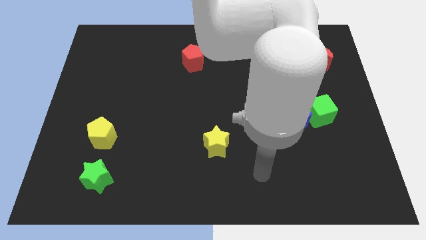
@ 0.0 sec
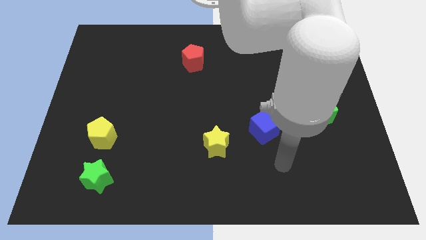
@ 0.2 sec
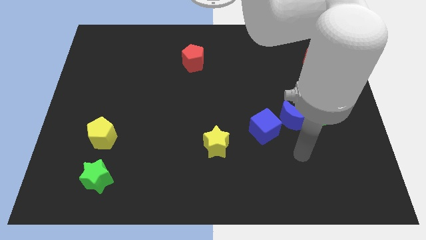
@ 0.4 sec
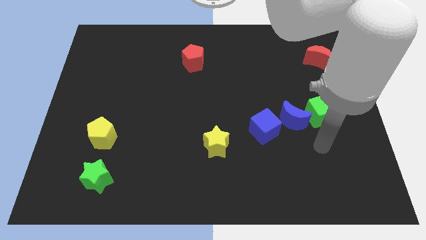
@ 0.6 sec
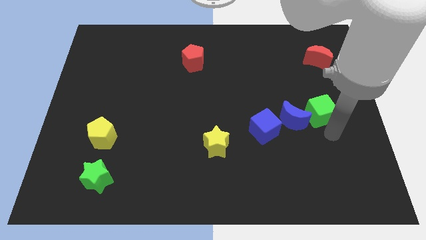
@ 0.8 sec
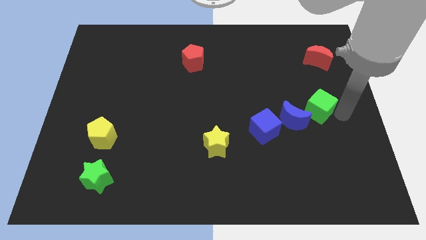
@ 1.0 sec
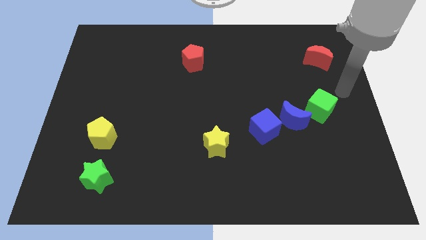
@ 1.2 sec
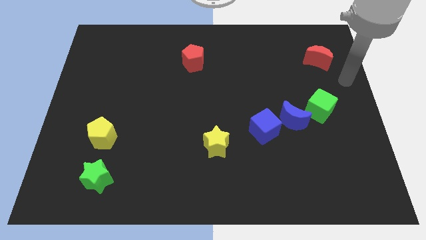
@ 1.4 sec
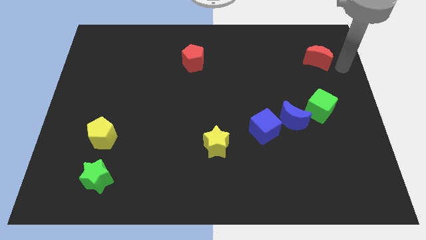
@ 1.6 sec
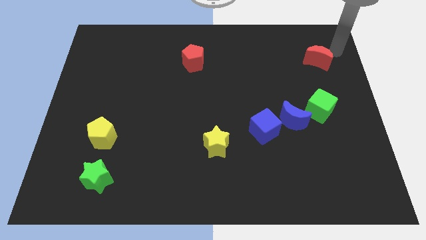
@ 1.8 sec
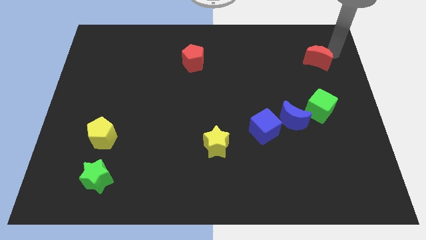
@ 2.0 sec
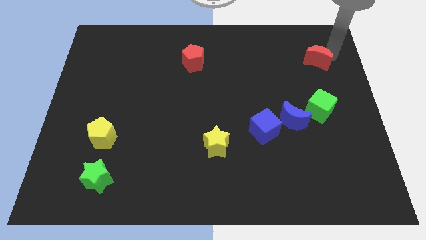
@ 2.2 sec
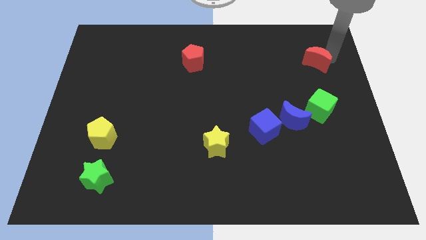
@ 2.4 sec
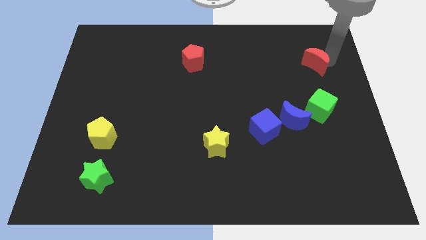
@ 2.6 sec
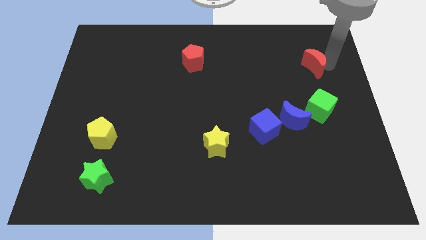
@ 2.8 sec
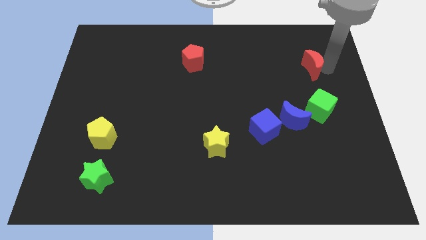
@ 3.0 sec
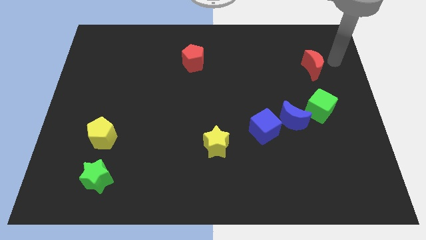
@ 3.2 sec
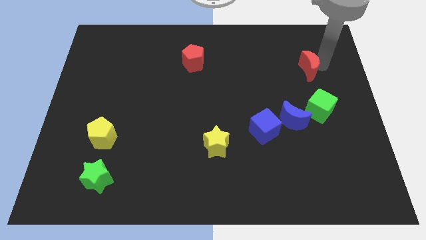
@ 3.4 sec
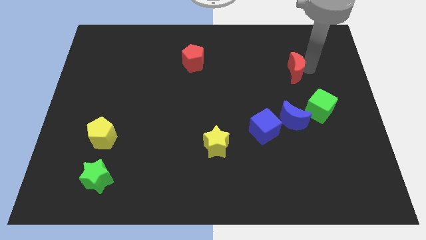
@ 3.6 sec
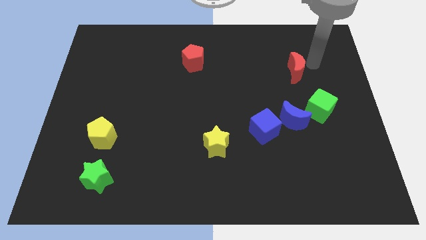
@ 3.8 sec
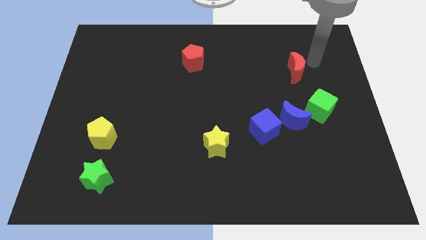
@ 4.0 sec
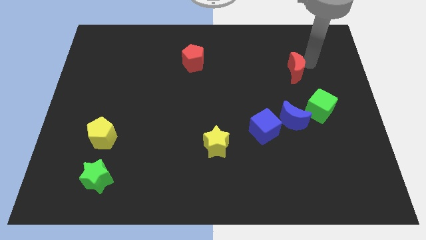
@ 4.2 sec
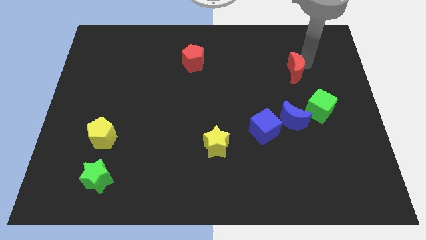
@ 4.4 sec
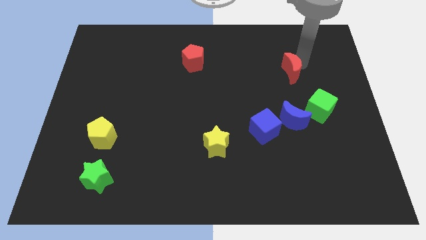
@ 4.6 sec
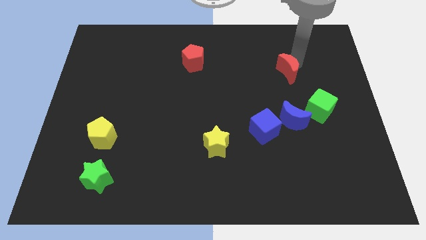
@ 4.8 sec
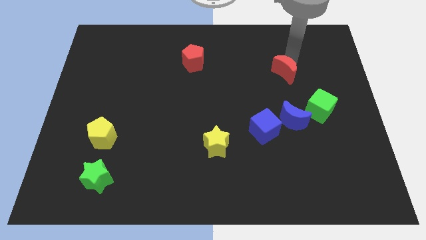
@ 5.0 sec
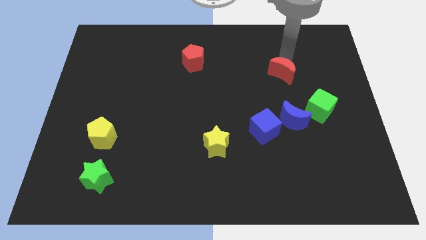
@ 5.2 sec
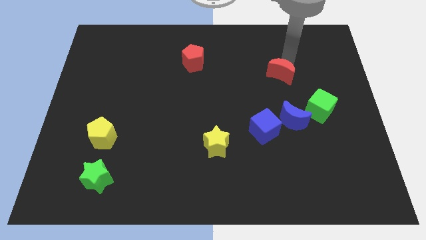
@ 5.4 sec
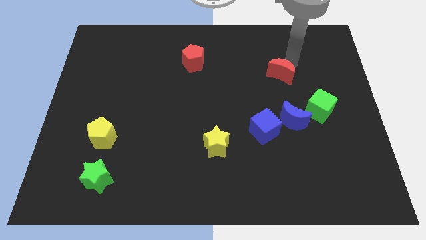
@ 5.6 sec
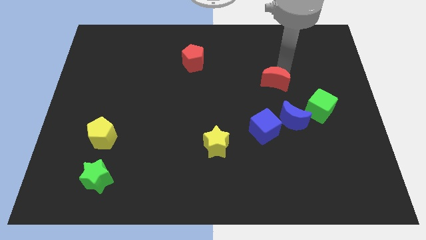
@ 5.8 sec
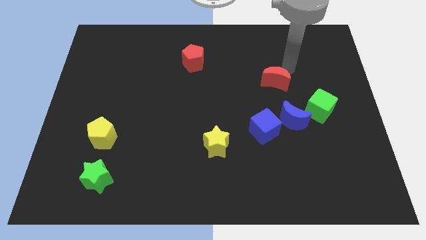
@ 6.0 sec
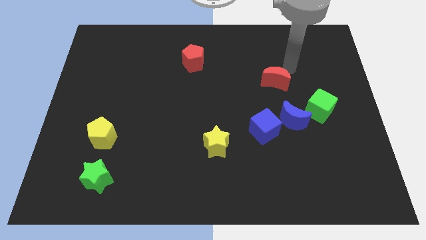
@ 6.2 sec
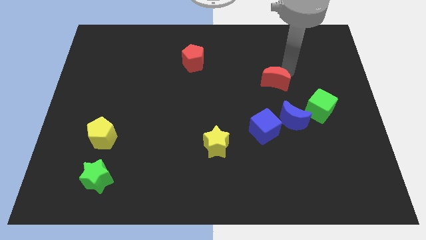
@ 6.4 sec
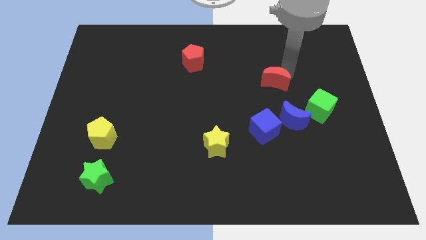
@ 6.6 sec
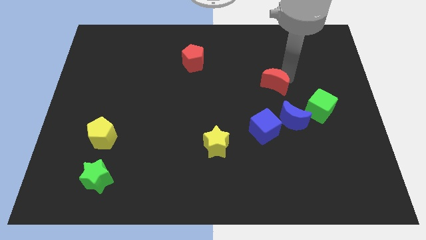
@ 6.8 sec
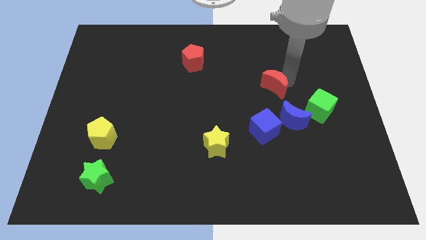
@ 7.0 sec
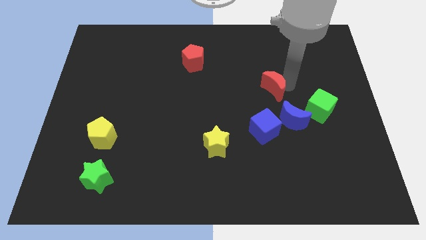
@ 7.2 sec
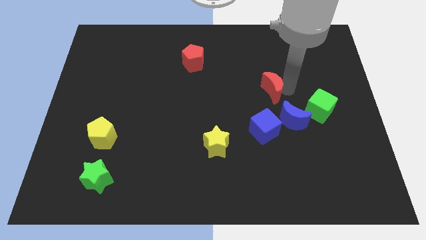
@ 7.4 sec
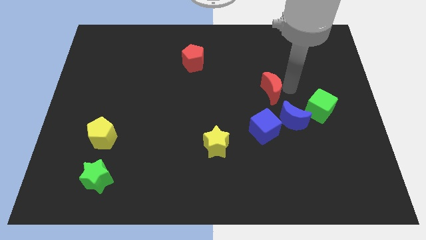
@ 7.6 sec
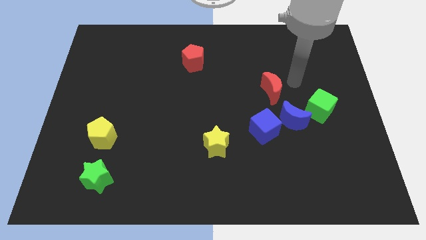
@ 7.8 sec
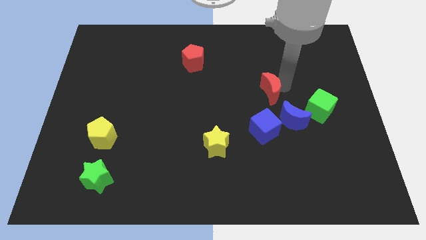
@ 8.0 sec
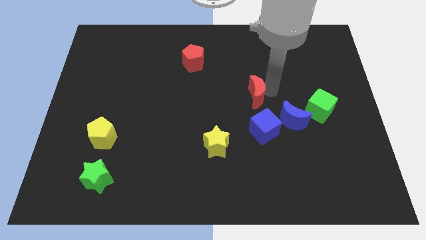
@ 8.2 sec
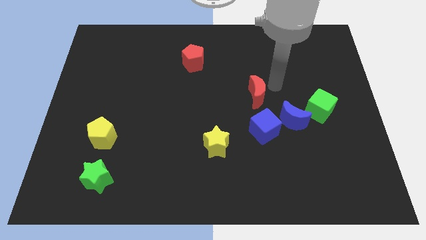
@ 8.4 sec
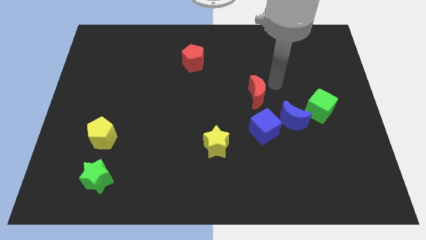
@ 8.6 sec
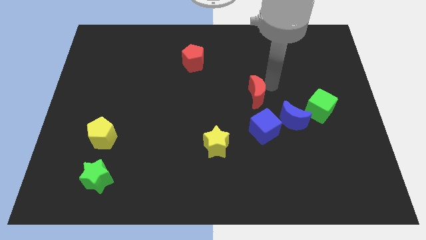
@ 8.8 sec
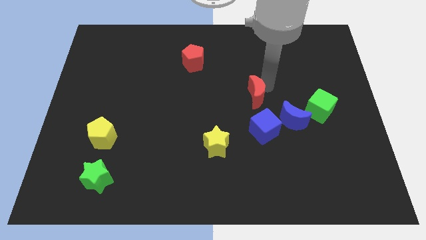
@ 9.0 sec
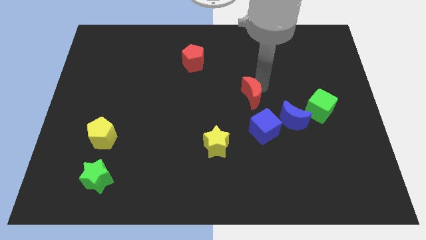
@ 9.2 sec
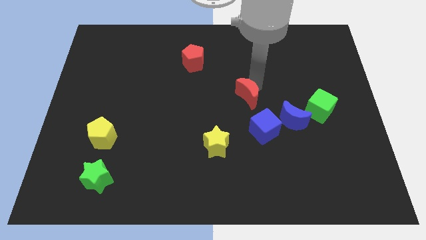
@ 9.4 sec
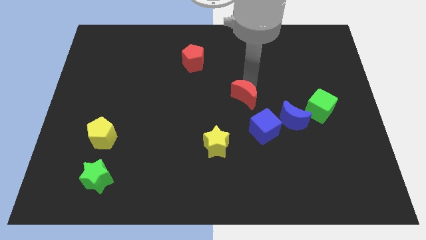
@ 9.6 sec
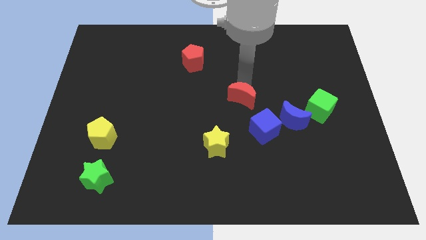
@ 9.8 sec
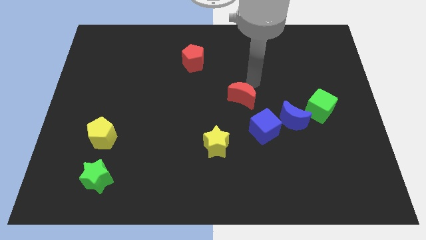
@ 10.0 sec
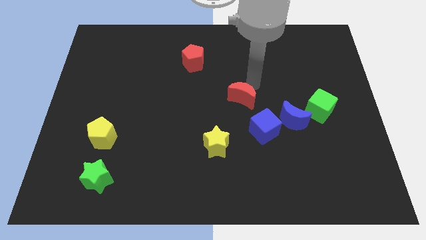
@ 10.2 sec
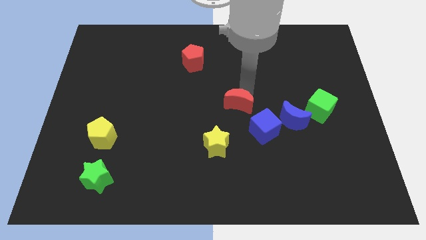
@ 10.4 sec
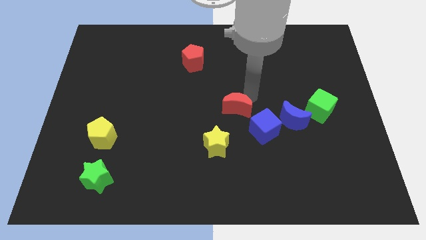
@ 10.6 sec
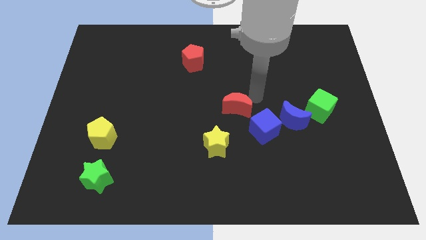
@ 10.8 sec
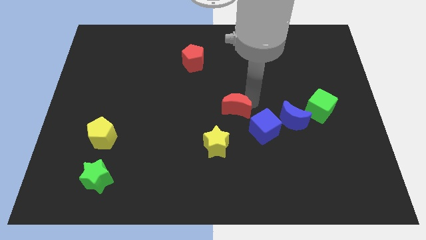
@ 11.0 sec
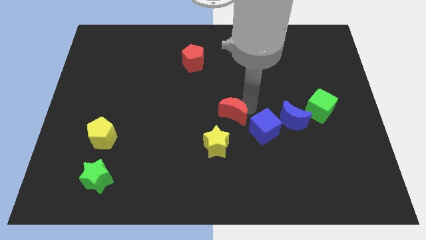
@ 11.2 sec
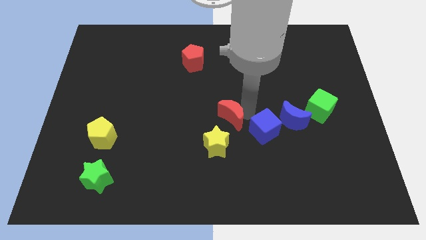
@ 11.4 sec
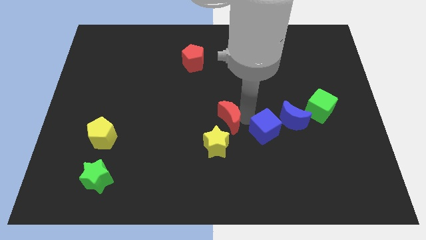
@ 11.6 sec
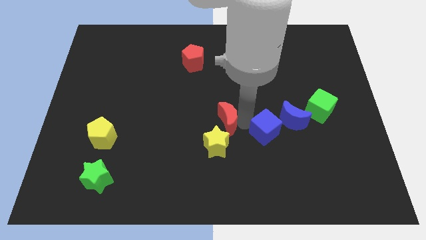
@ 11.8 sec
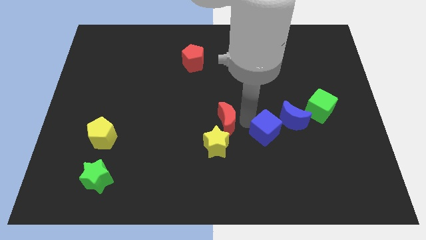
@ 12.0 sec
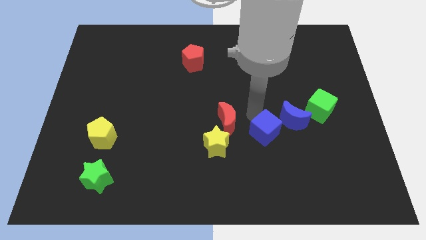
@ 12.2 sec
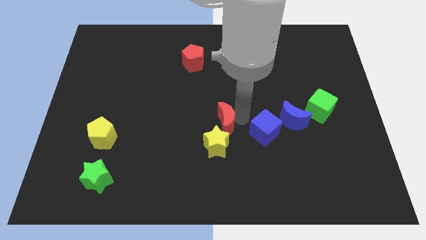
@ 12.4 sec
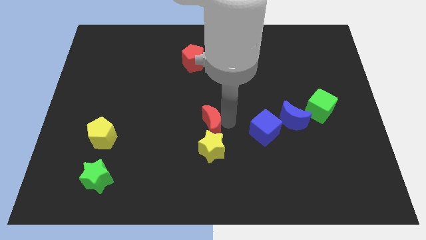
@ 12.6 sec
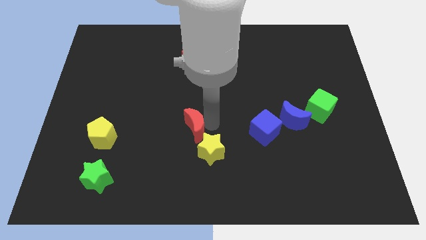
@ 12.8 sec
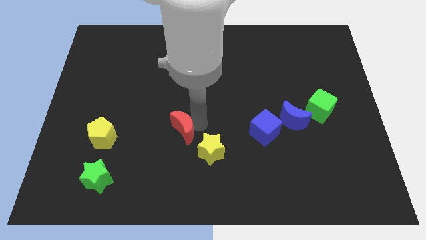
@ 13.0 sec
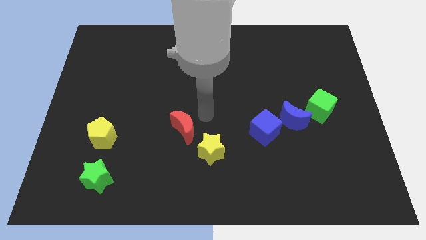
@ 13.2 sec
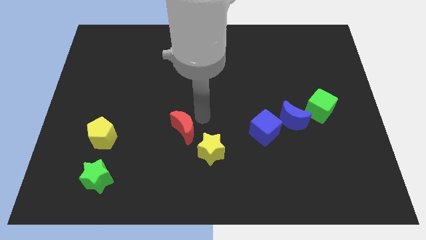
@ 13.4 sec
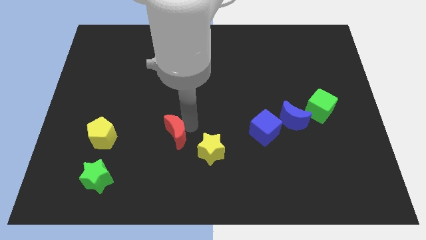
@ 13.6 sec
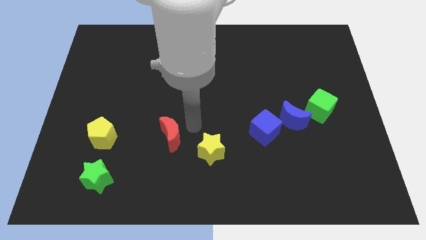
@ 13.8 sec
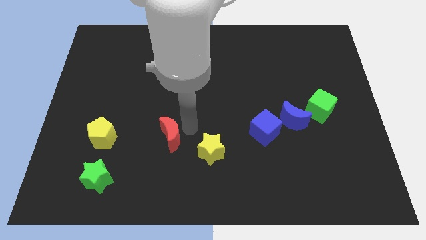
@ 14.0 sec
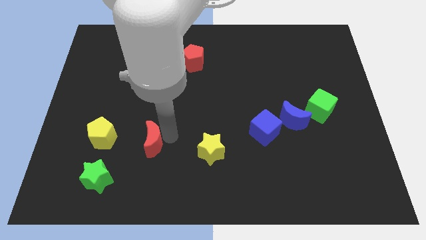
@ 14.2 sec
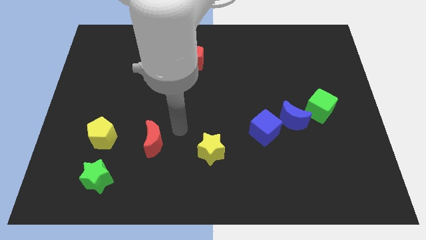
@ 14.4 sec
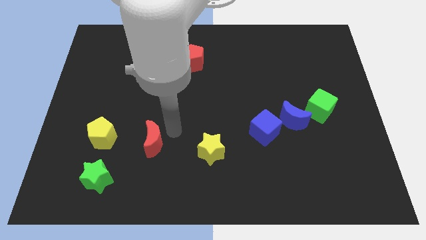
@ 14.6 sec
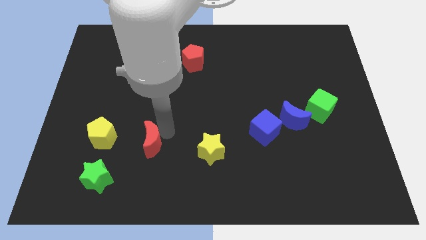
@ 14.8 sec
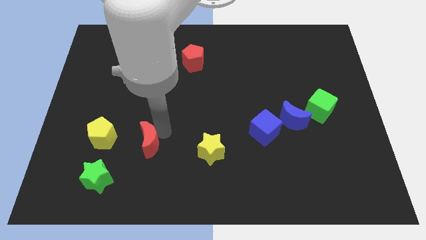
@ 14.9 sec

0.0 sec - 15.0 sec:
move the red moon diagonally up and to the right of the green star
